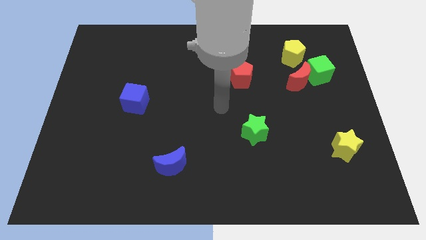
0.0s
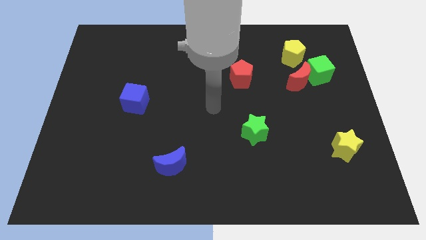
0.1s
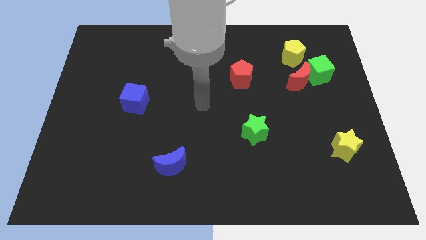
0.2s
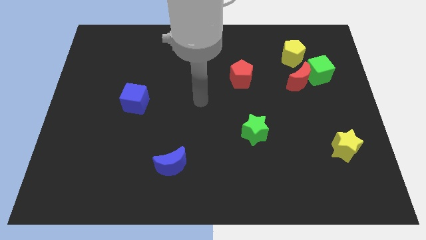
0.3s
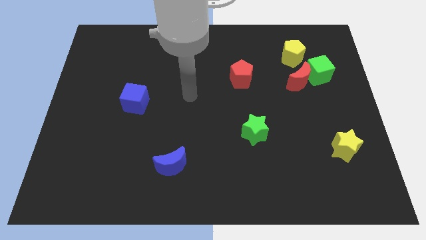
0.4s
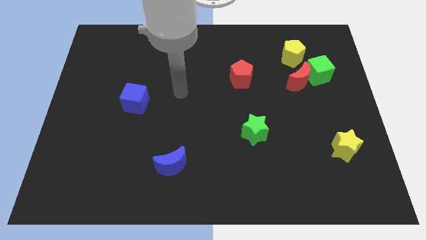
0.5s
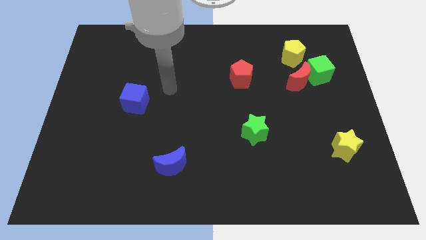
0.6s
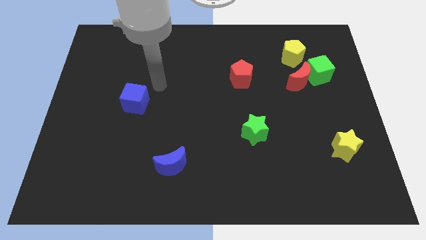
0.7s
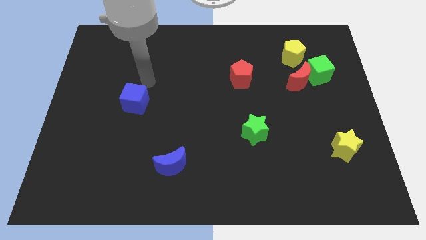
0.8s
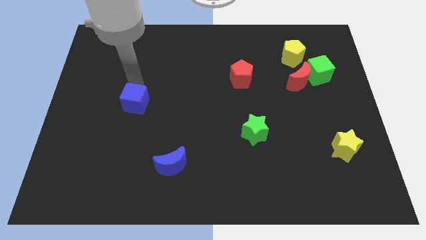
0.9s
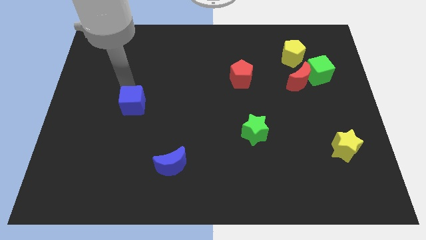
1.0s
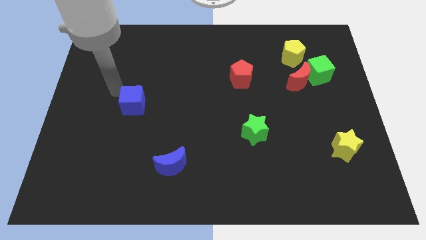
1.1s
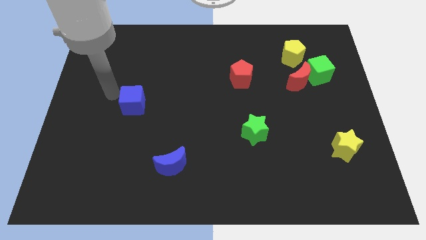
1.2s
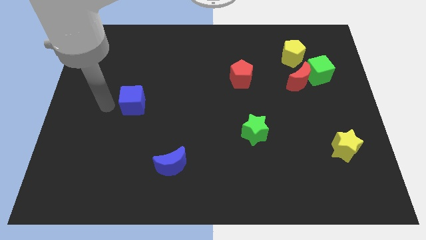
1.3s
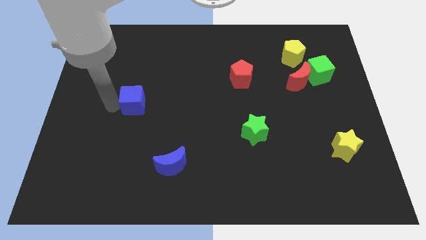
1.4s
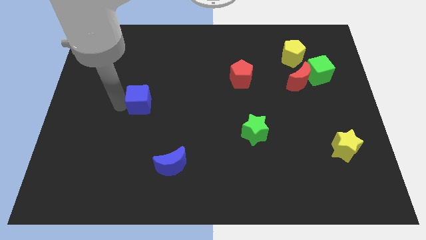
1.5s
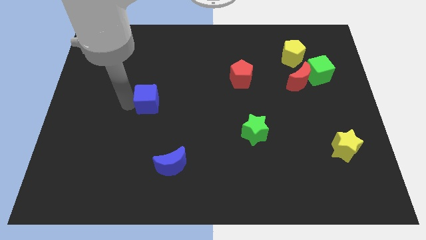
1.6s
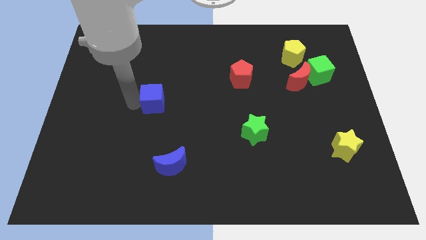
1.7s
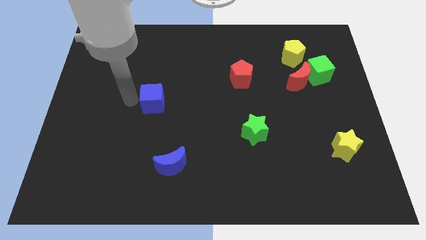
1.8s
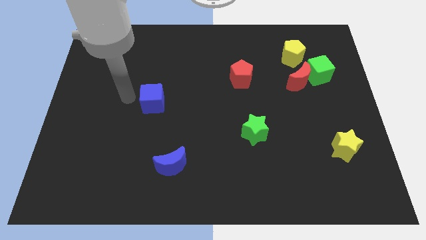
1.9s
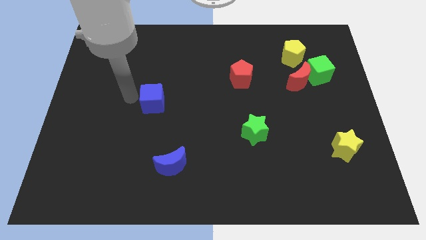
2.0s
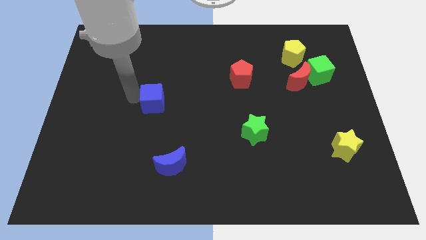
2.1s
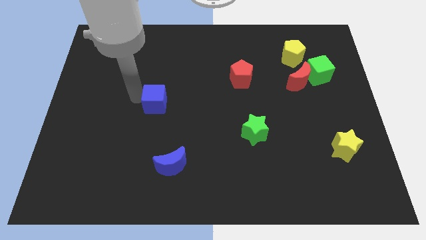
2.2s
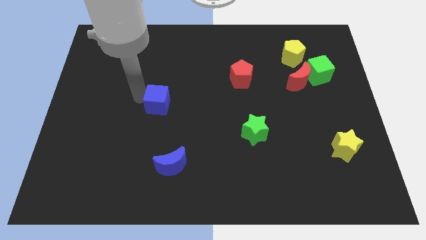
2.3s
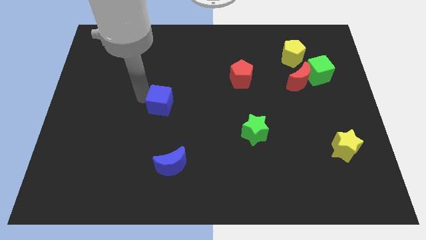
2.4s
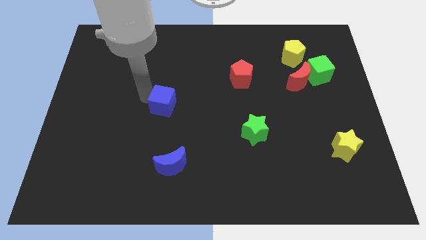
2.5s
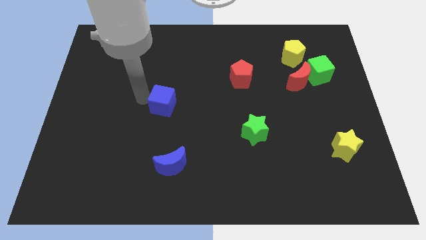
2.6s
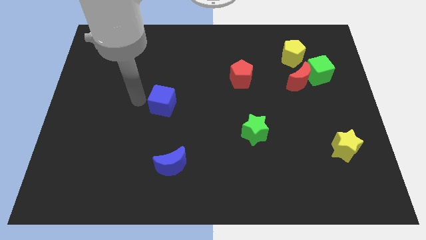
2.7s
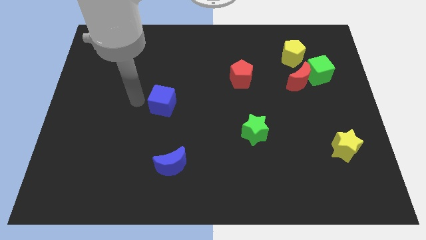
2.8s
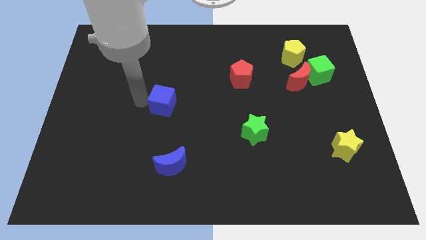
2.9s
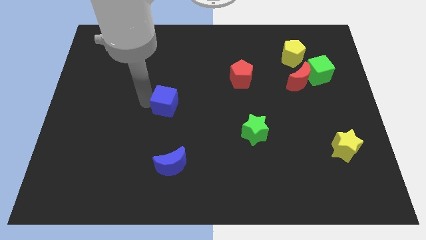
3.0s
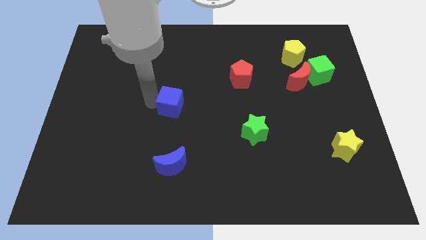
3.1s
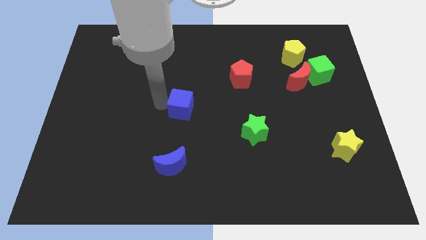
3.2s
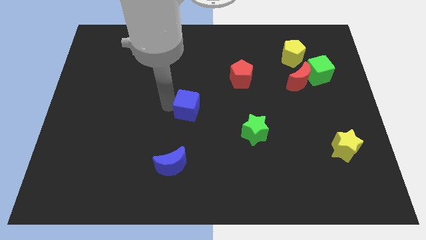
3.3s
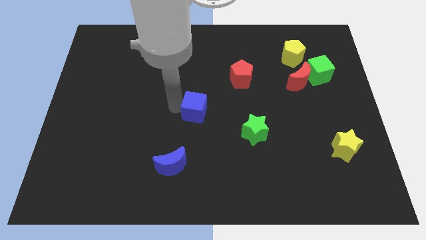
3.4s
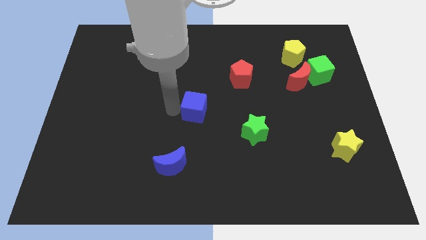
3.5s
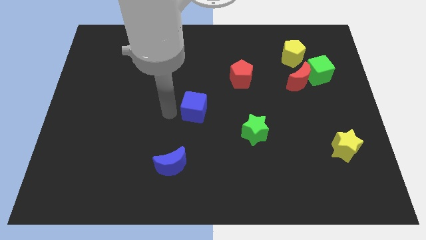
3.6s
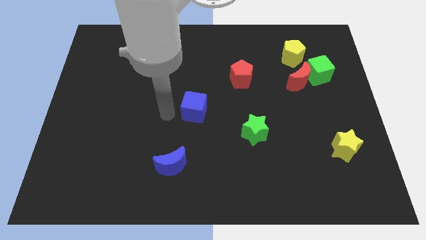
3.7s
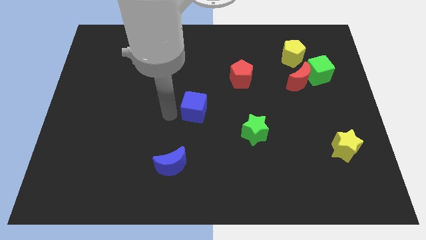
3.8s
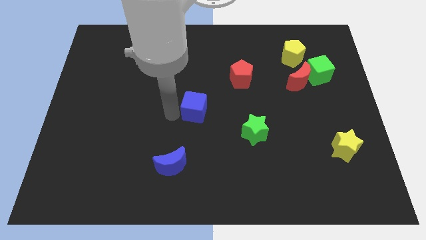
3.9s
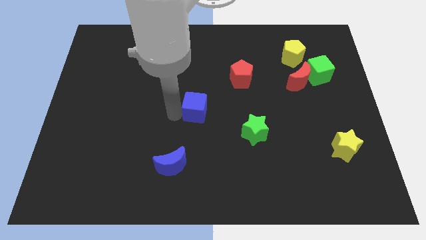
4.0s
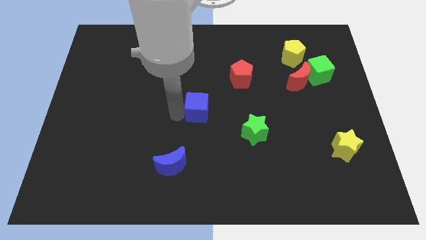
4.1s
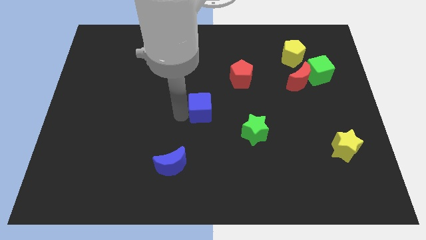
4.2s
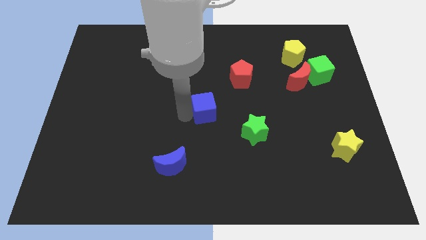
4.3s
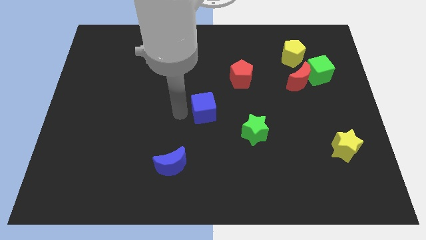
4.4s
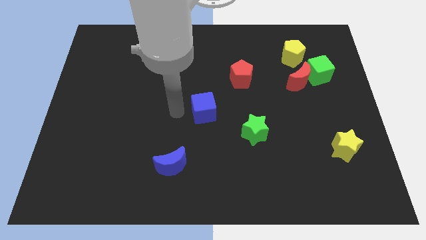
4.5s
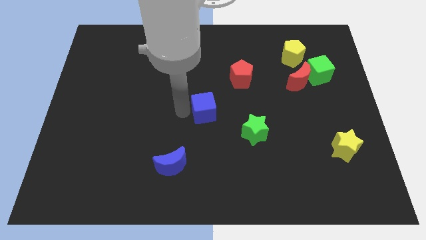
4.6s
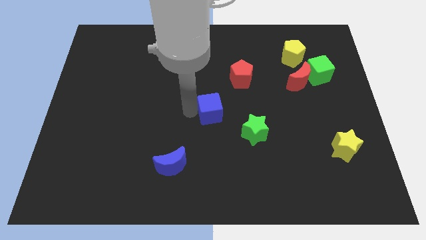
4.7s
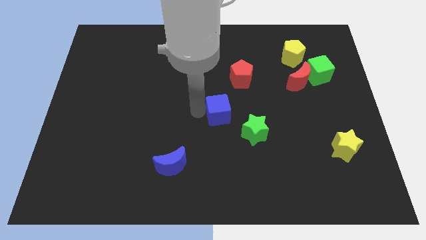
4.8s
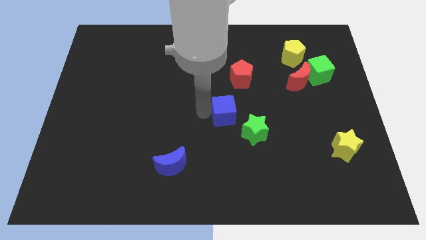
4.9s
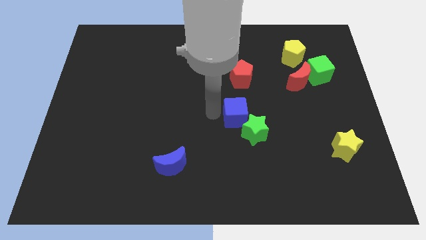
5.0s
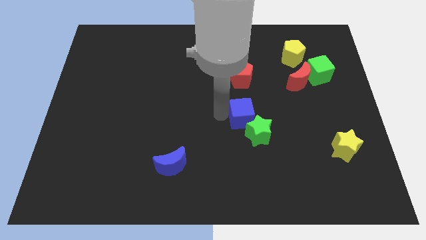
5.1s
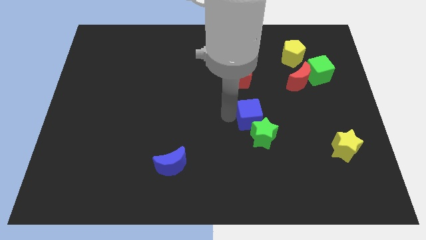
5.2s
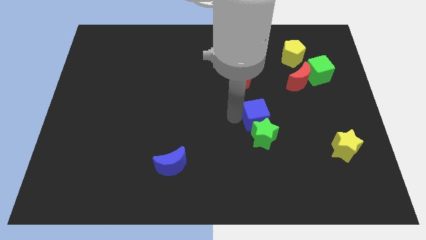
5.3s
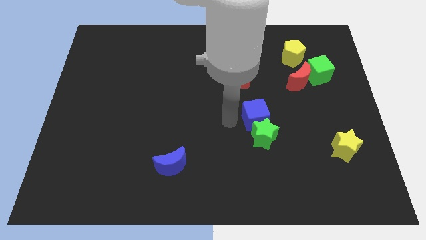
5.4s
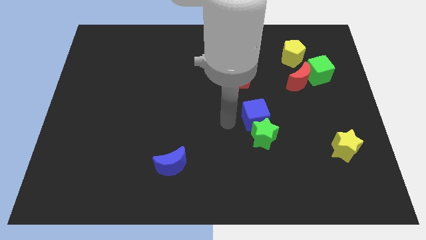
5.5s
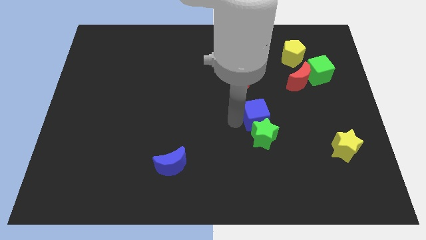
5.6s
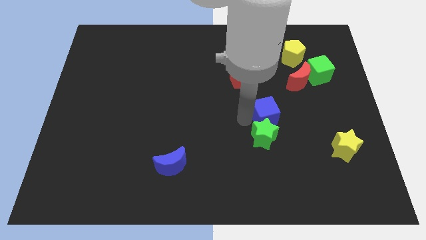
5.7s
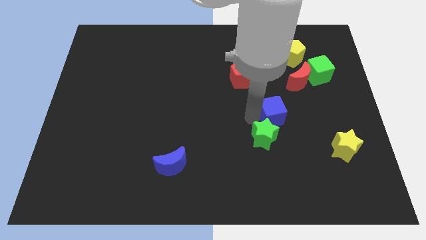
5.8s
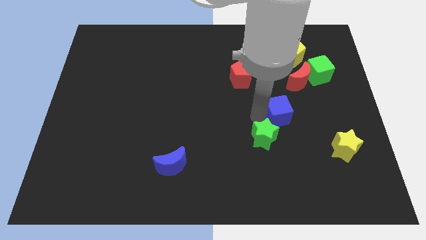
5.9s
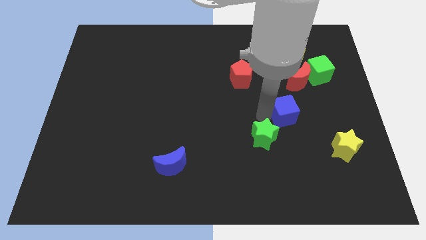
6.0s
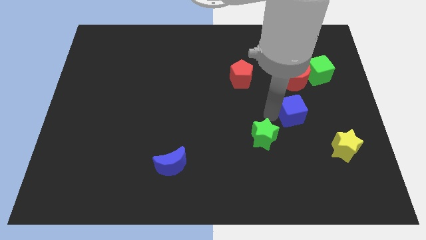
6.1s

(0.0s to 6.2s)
slide the blue cube below the red moon
